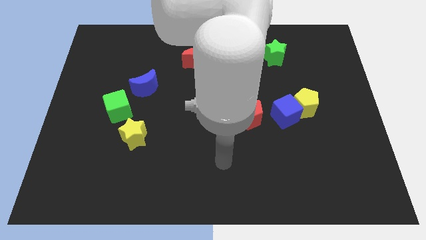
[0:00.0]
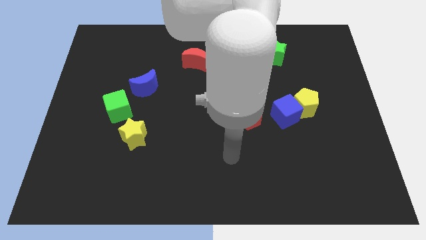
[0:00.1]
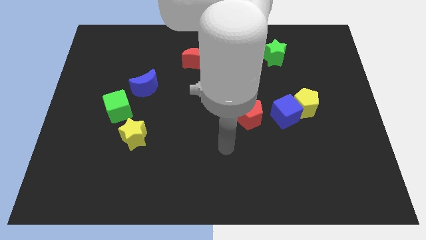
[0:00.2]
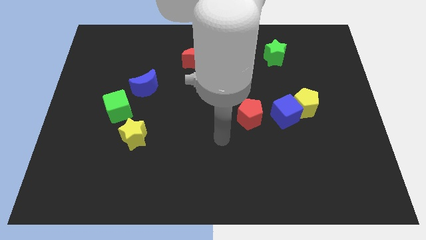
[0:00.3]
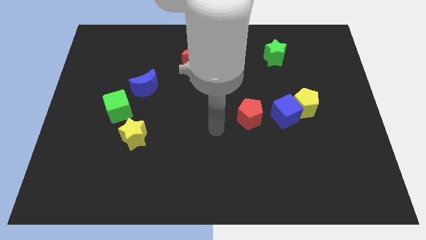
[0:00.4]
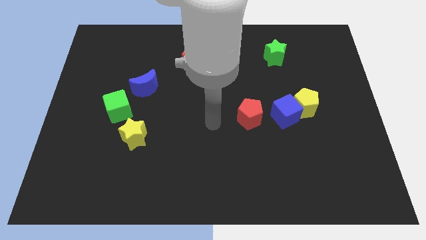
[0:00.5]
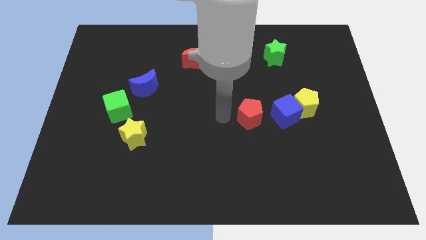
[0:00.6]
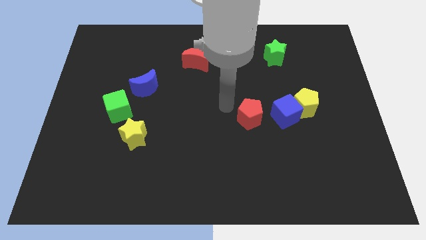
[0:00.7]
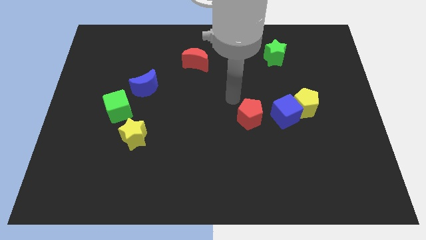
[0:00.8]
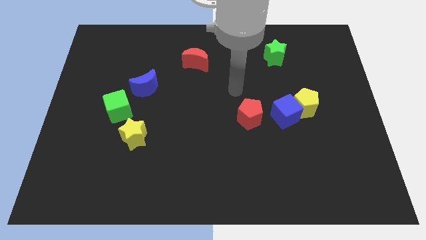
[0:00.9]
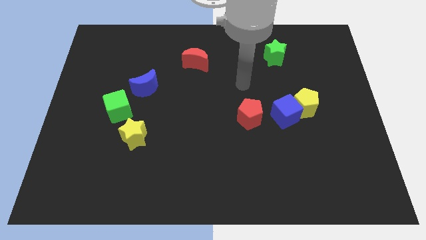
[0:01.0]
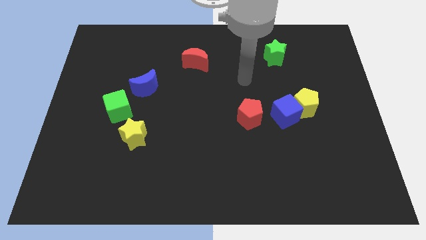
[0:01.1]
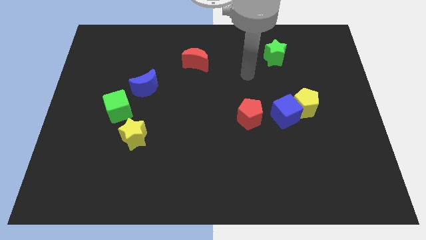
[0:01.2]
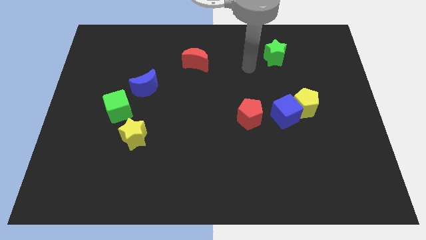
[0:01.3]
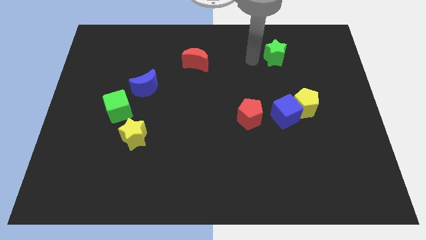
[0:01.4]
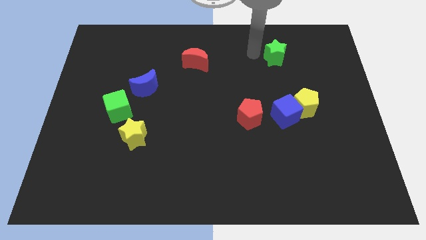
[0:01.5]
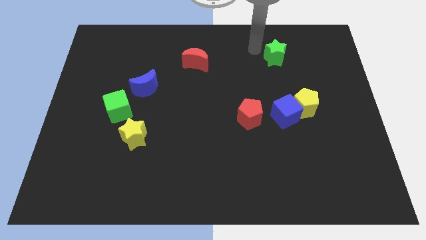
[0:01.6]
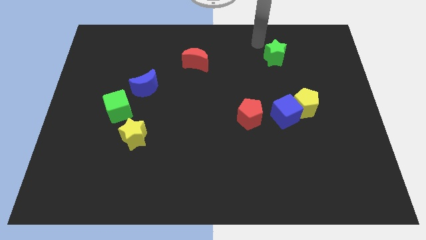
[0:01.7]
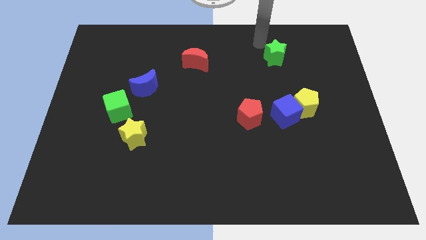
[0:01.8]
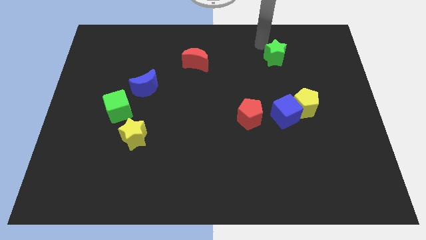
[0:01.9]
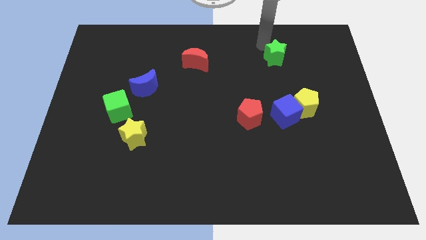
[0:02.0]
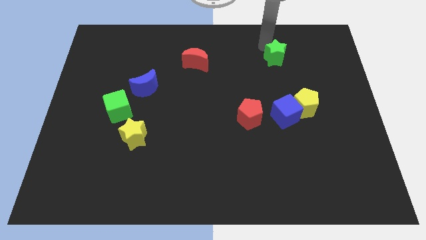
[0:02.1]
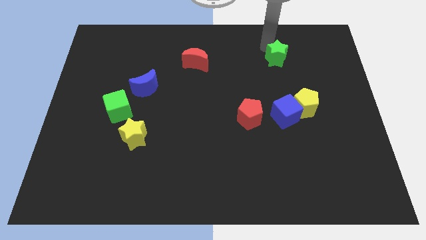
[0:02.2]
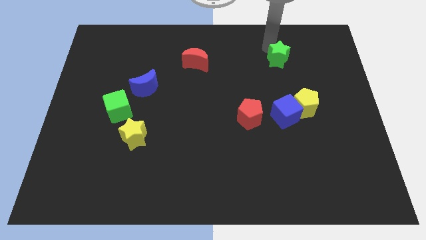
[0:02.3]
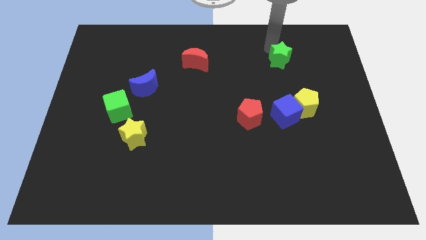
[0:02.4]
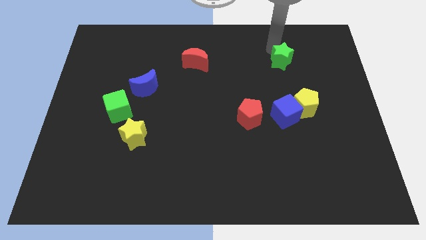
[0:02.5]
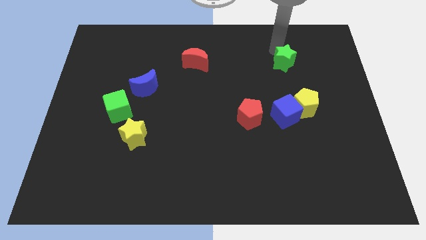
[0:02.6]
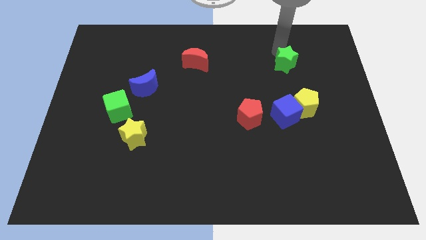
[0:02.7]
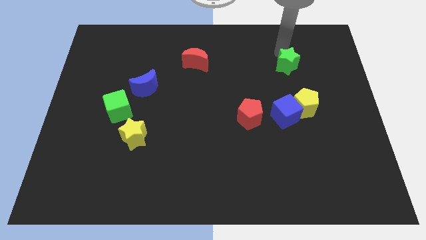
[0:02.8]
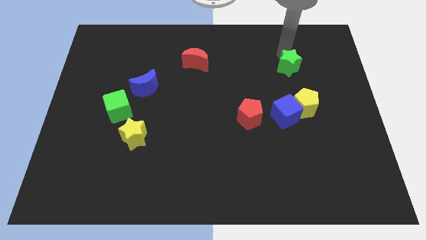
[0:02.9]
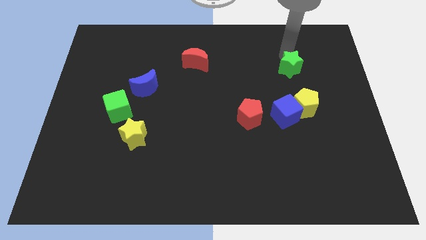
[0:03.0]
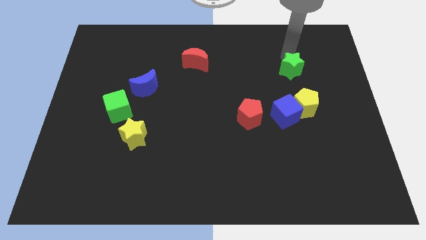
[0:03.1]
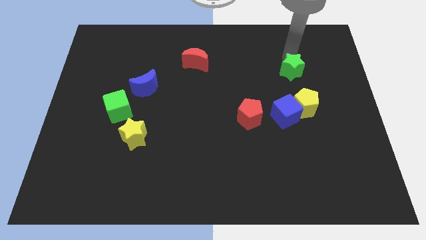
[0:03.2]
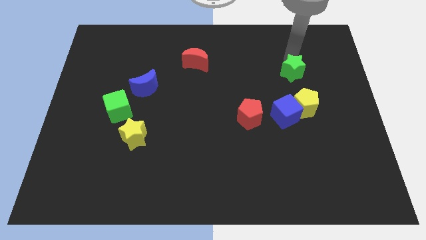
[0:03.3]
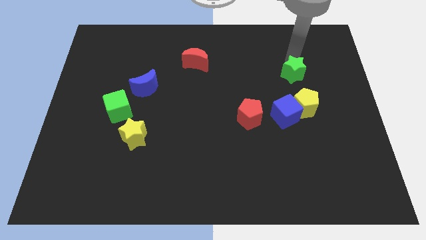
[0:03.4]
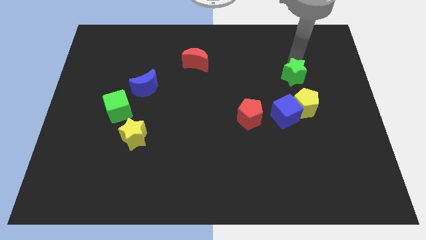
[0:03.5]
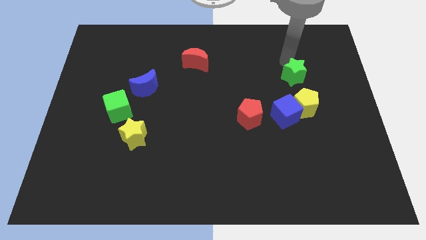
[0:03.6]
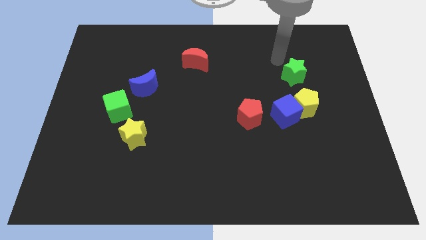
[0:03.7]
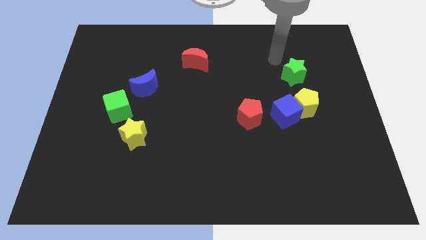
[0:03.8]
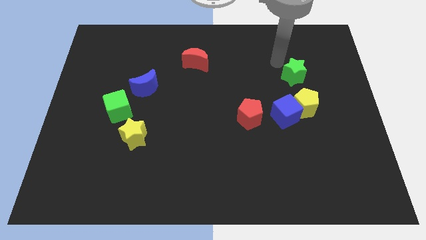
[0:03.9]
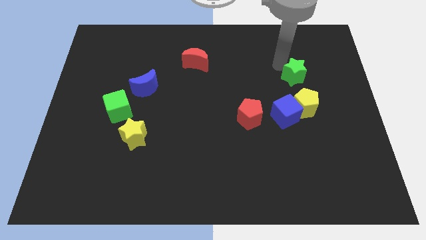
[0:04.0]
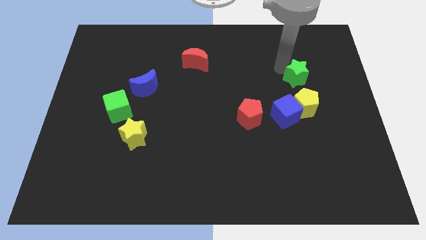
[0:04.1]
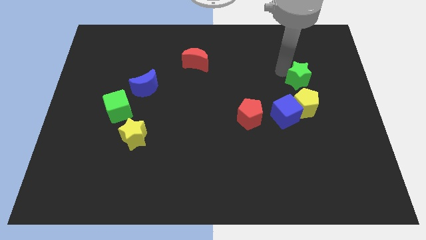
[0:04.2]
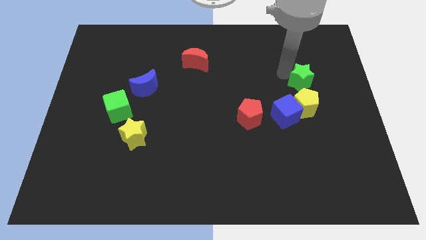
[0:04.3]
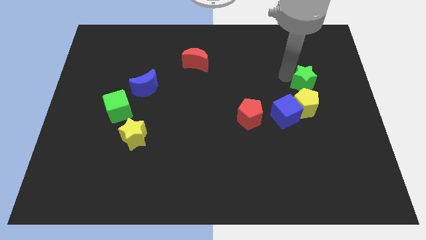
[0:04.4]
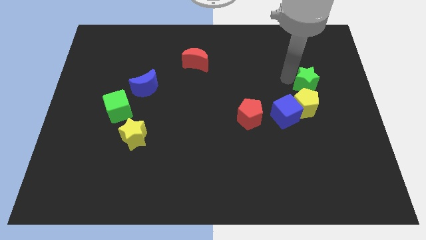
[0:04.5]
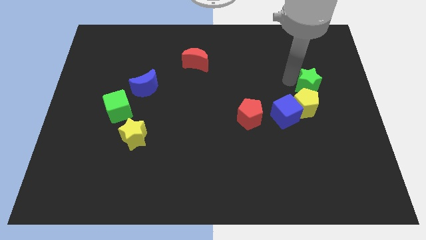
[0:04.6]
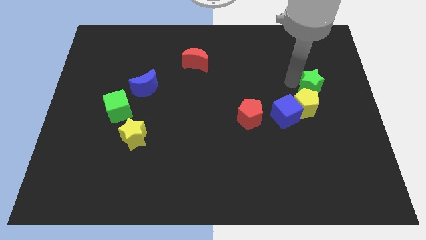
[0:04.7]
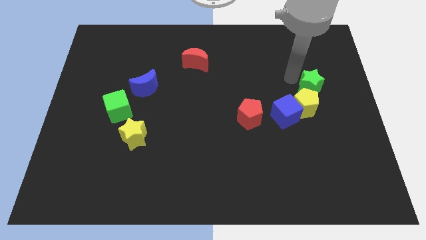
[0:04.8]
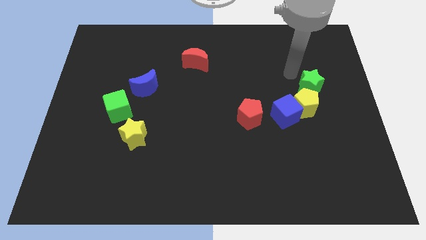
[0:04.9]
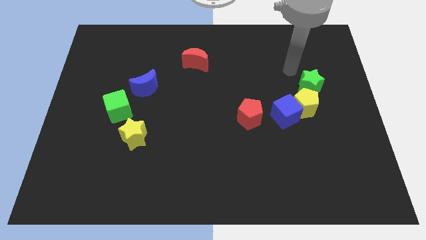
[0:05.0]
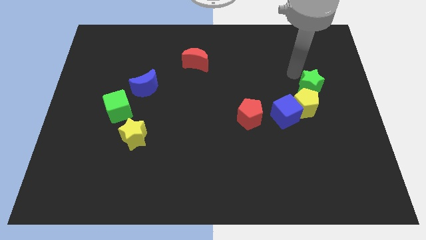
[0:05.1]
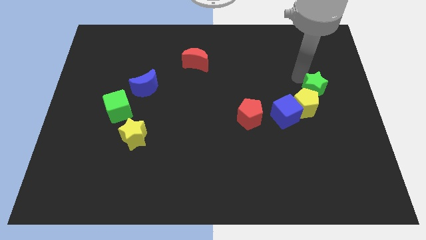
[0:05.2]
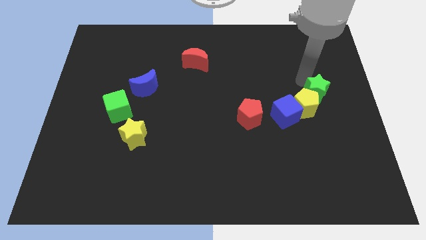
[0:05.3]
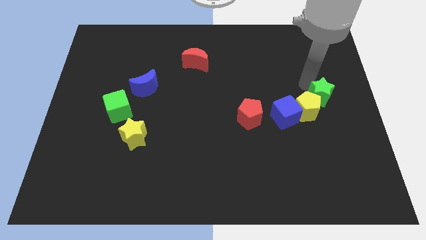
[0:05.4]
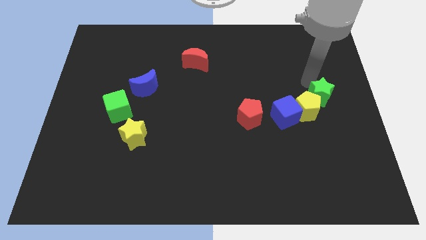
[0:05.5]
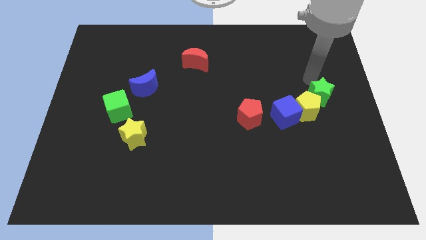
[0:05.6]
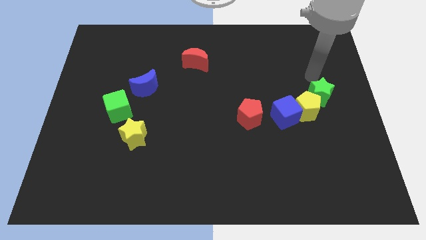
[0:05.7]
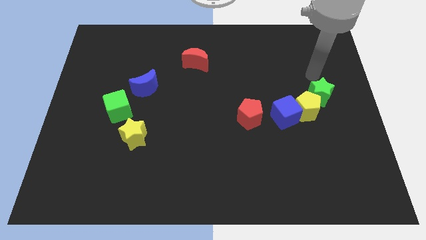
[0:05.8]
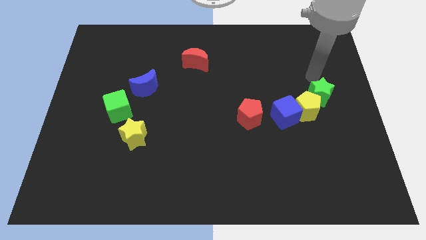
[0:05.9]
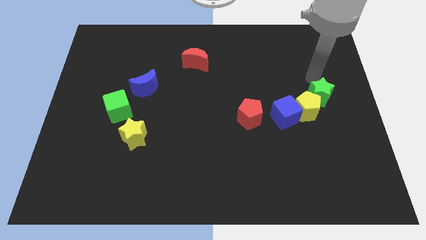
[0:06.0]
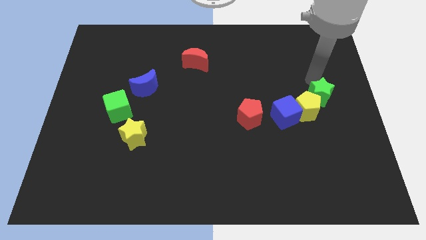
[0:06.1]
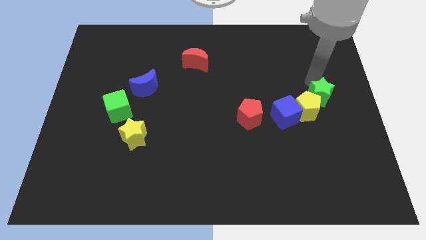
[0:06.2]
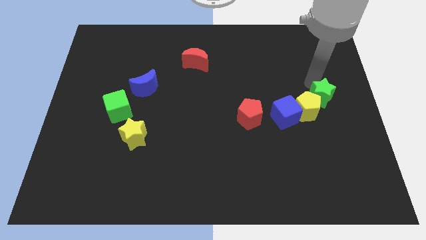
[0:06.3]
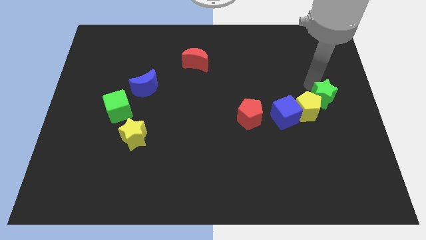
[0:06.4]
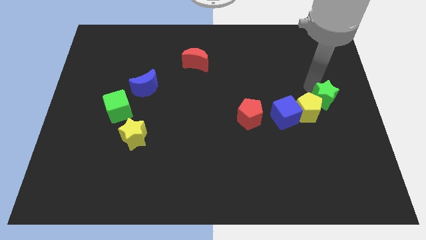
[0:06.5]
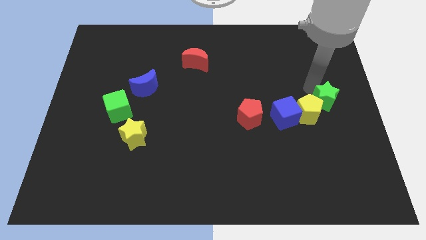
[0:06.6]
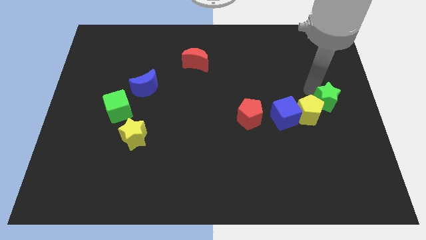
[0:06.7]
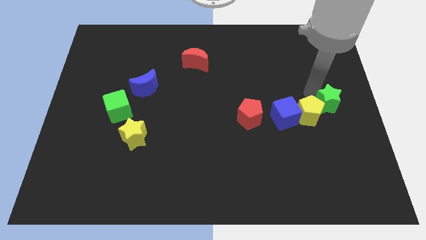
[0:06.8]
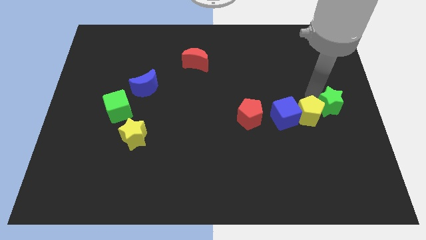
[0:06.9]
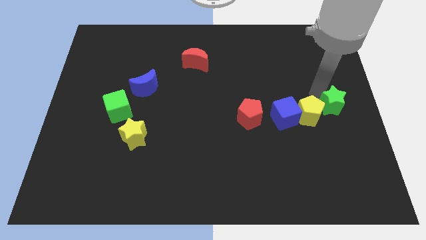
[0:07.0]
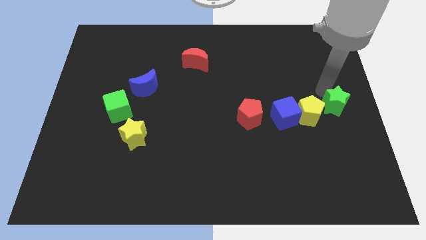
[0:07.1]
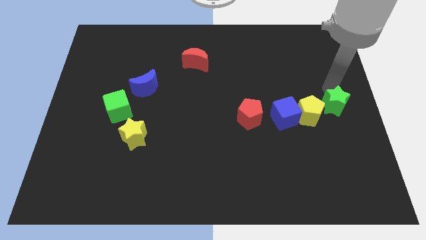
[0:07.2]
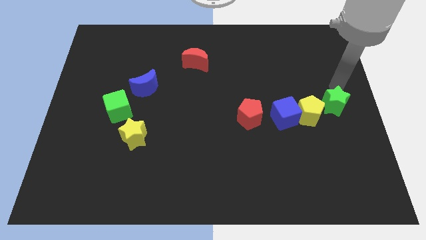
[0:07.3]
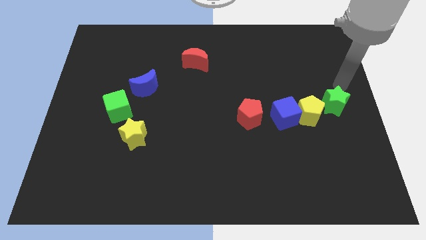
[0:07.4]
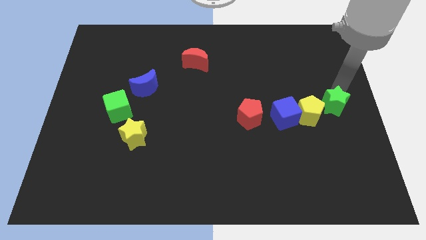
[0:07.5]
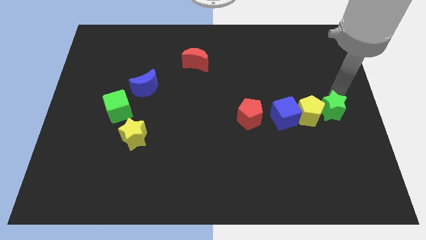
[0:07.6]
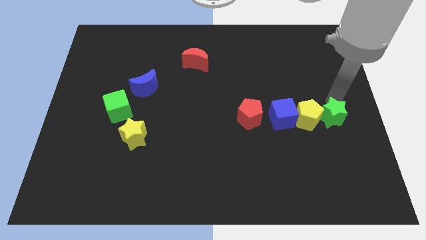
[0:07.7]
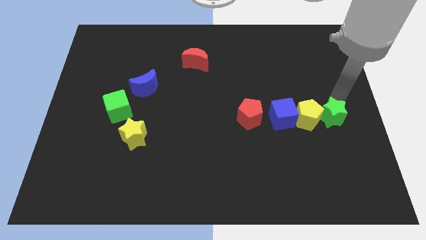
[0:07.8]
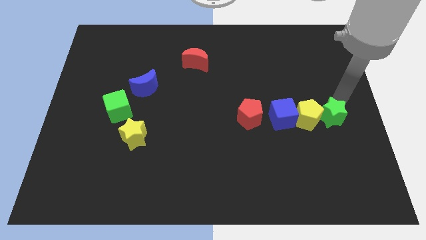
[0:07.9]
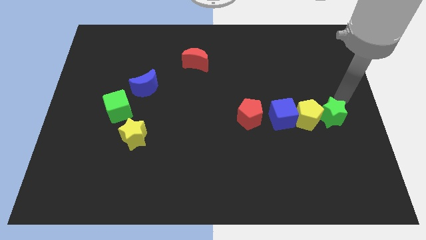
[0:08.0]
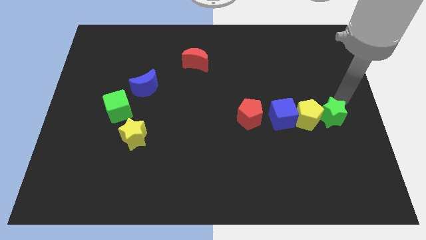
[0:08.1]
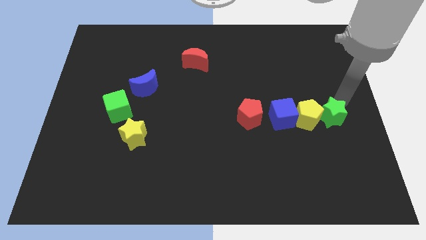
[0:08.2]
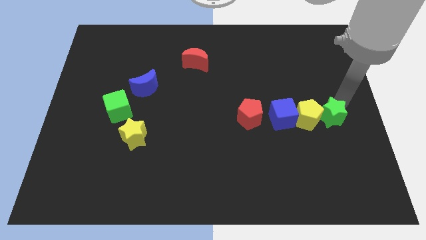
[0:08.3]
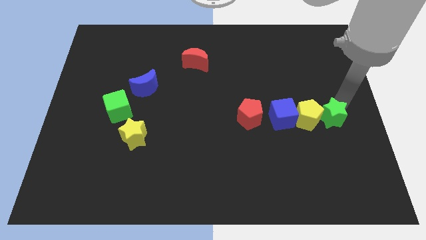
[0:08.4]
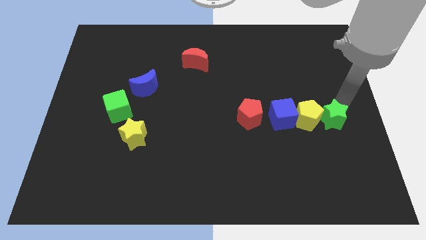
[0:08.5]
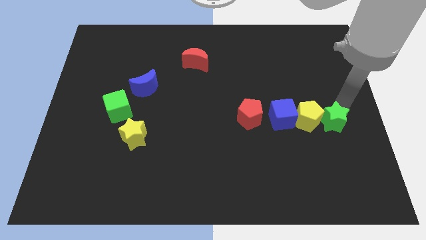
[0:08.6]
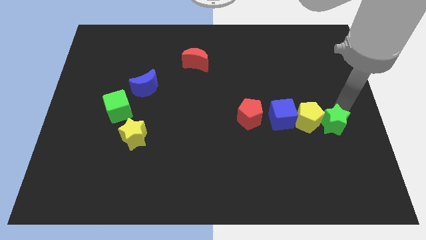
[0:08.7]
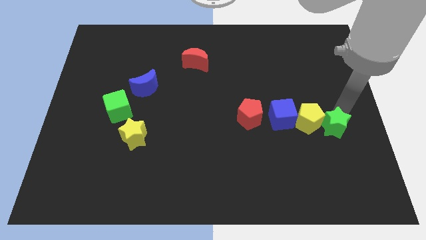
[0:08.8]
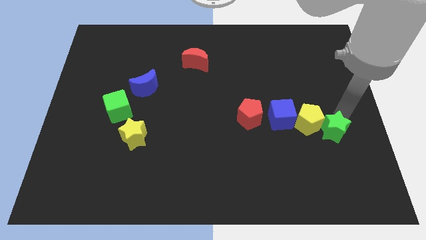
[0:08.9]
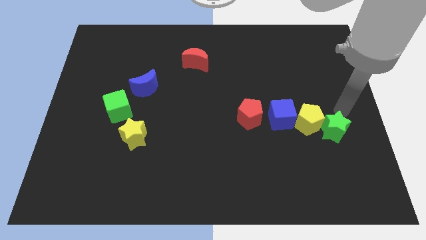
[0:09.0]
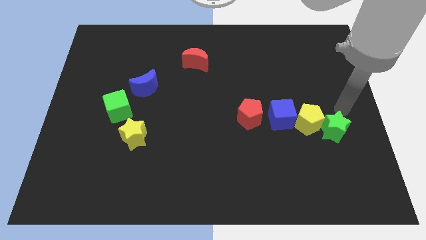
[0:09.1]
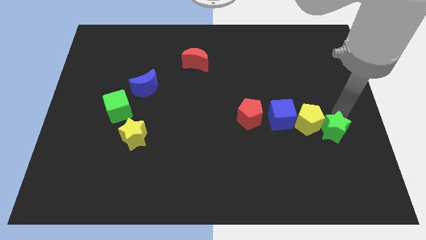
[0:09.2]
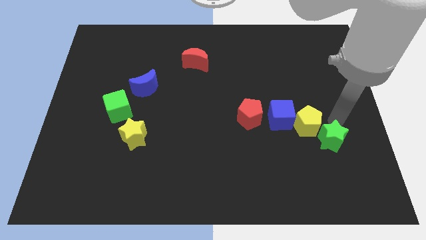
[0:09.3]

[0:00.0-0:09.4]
move the green star below the yellow pentagon
